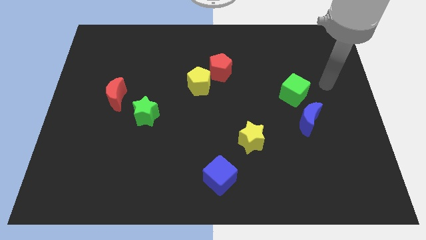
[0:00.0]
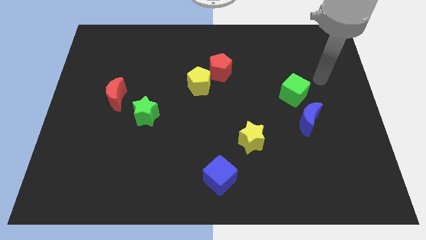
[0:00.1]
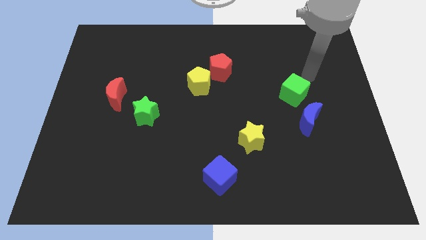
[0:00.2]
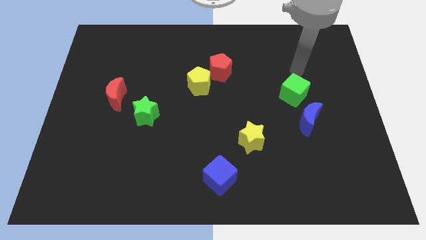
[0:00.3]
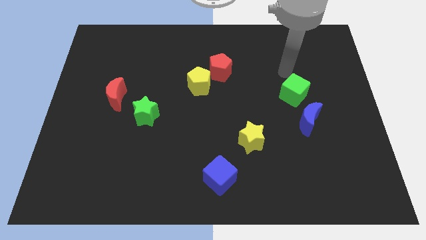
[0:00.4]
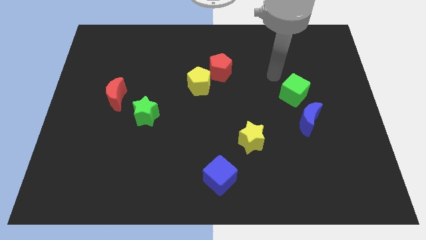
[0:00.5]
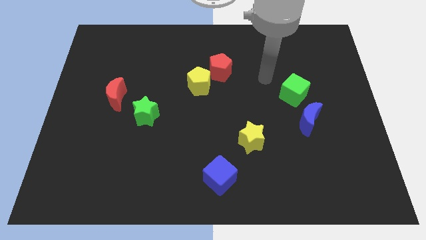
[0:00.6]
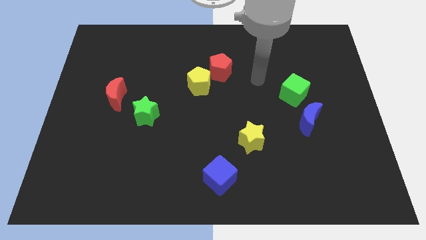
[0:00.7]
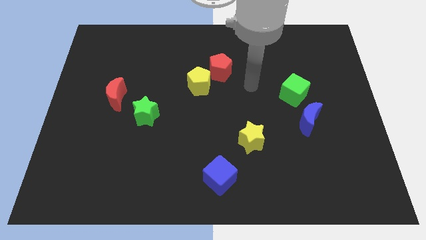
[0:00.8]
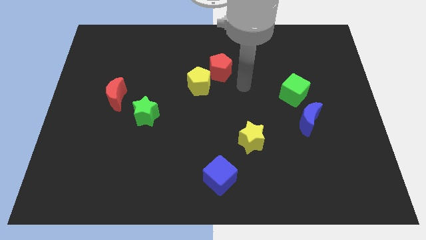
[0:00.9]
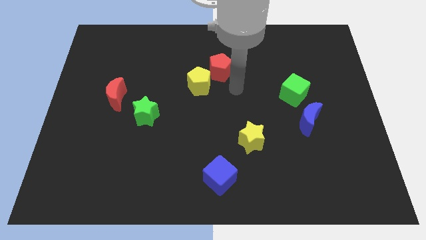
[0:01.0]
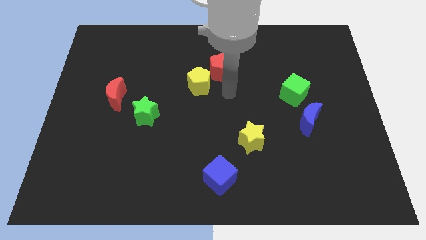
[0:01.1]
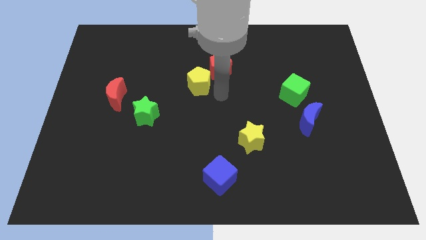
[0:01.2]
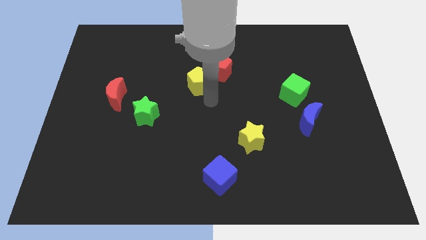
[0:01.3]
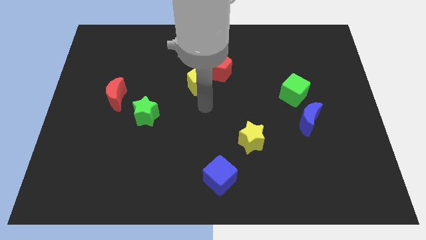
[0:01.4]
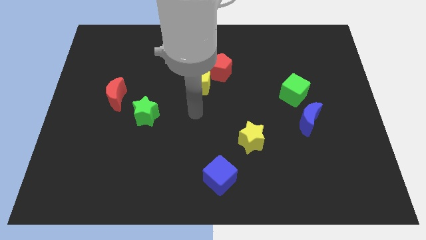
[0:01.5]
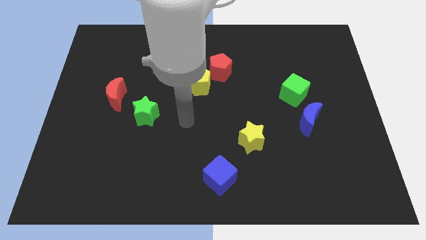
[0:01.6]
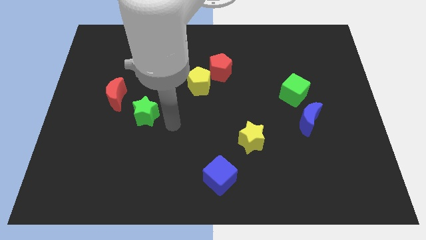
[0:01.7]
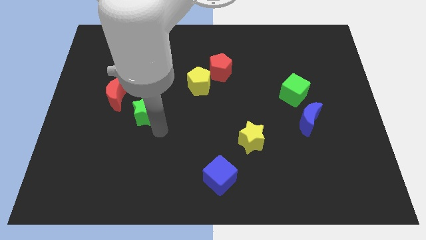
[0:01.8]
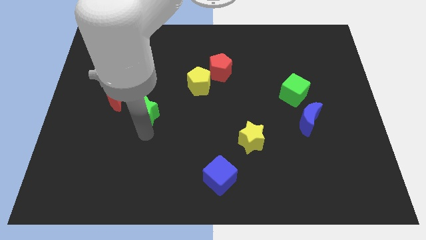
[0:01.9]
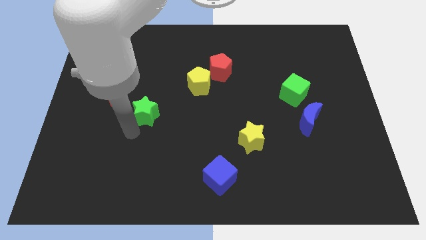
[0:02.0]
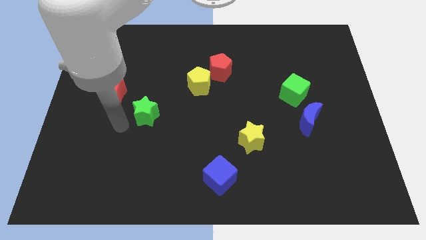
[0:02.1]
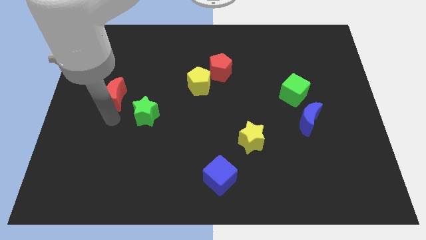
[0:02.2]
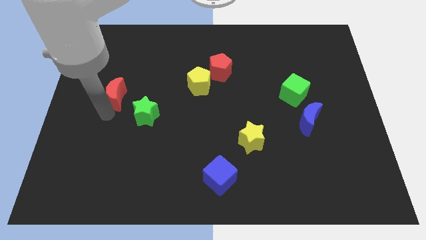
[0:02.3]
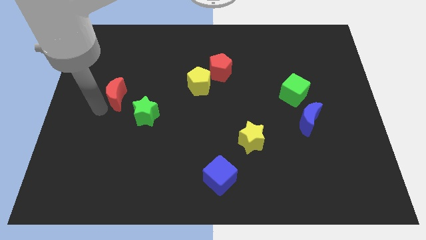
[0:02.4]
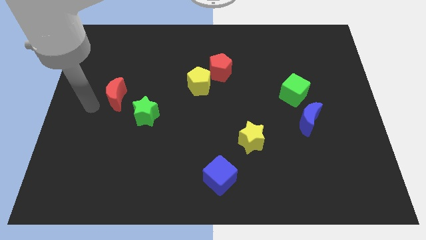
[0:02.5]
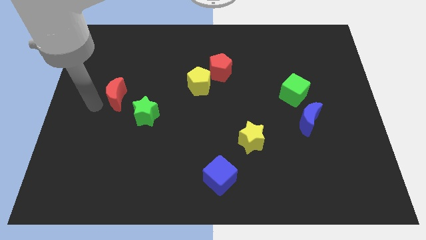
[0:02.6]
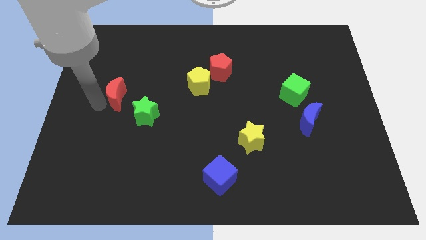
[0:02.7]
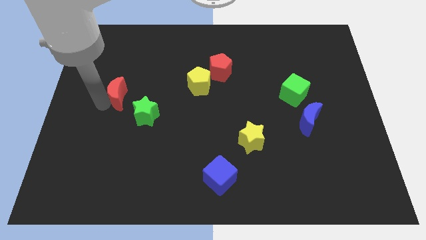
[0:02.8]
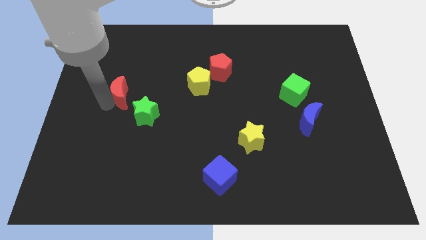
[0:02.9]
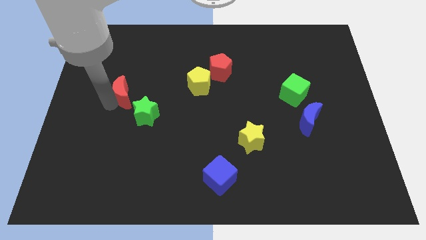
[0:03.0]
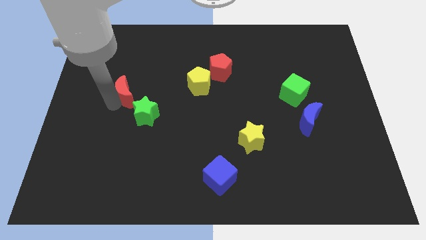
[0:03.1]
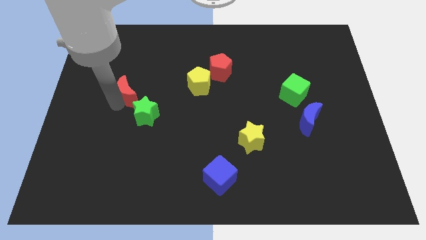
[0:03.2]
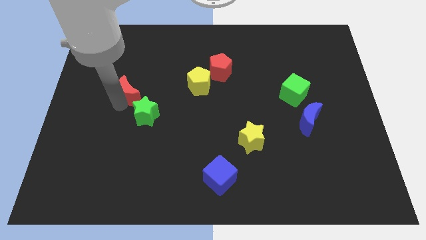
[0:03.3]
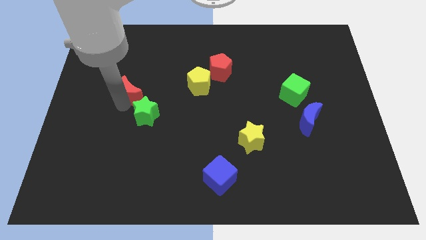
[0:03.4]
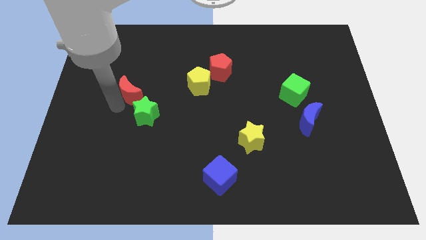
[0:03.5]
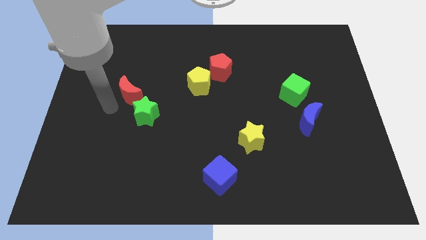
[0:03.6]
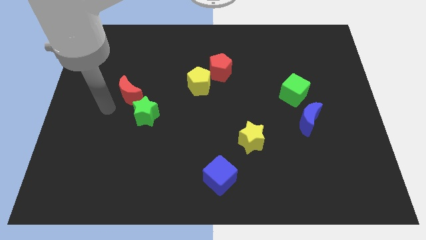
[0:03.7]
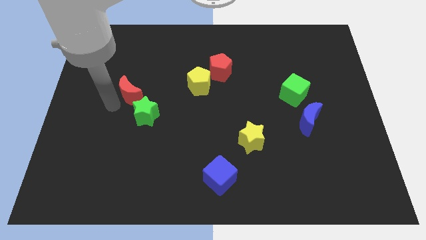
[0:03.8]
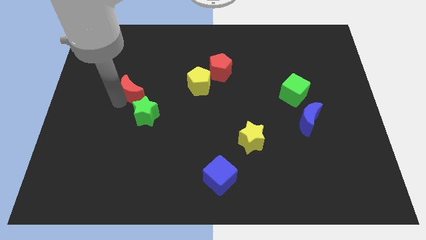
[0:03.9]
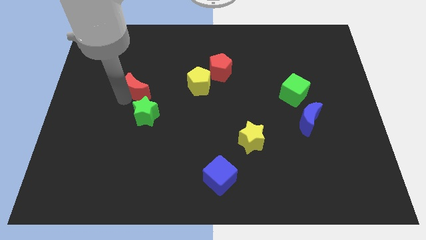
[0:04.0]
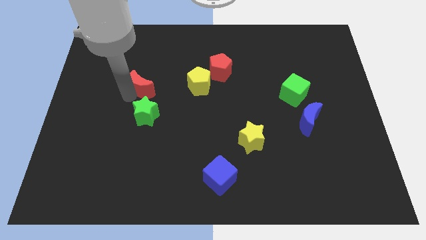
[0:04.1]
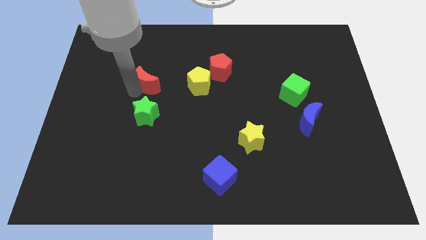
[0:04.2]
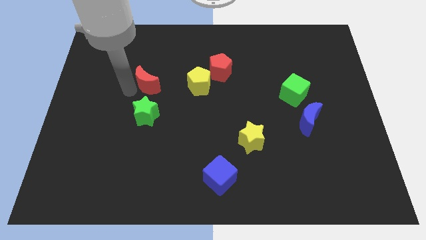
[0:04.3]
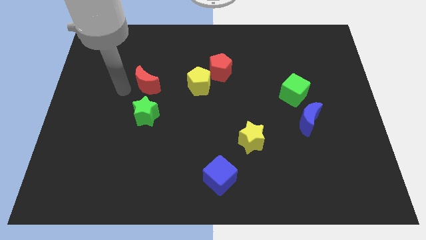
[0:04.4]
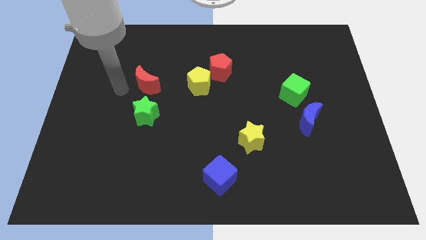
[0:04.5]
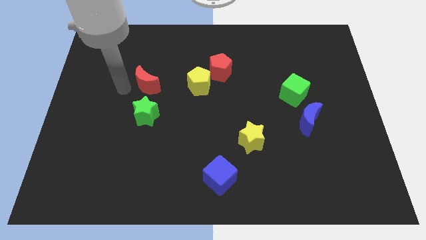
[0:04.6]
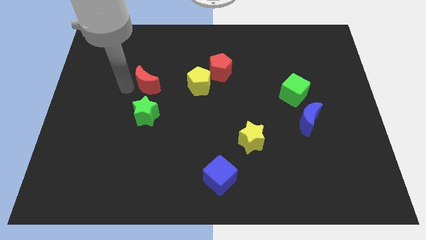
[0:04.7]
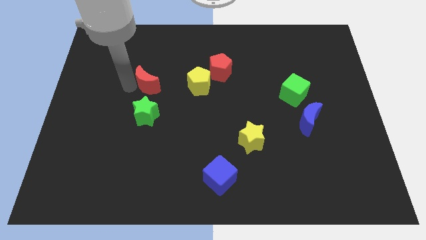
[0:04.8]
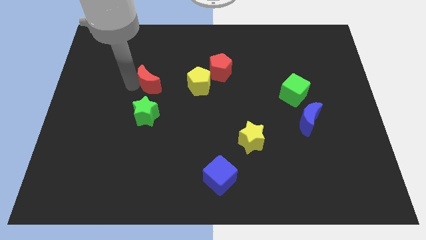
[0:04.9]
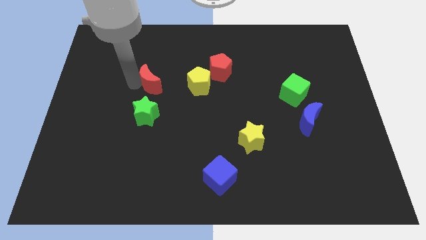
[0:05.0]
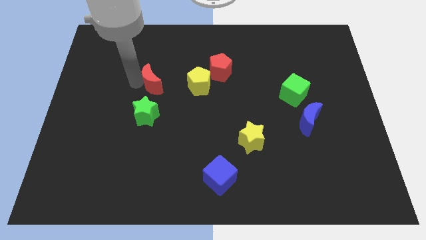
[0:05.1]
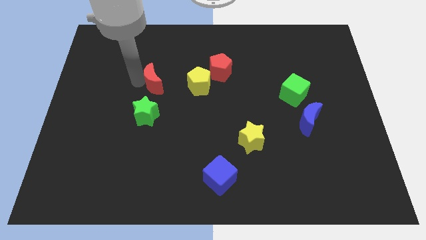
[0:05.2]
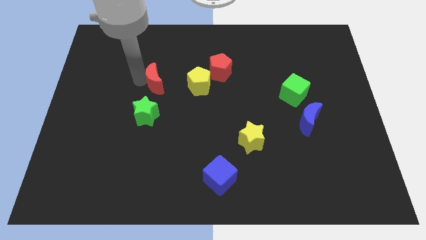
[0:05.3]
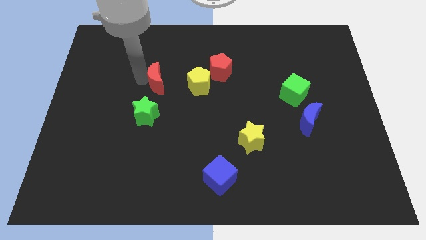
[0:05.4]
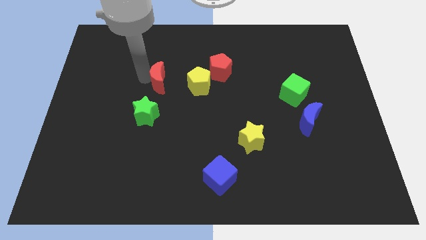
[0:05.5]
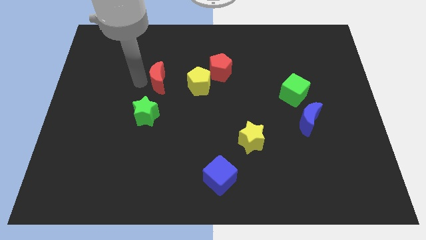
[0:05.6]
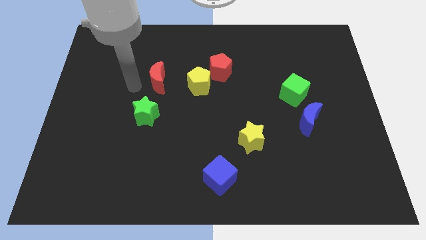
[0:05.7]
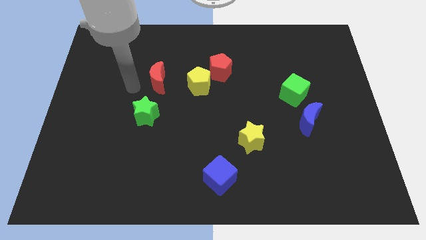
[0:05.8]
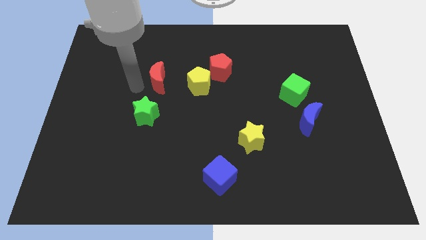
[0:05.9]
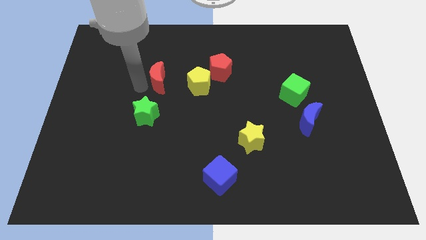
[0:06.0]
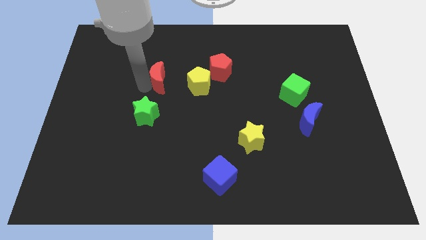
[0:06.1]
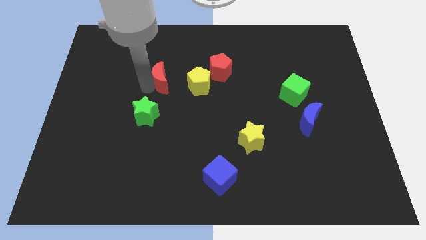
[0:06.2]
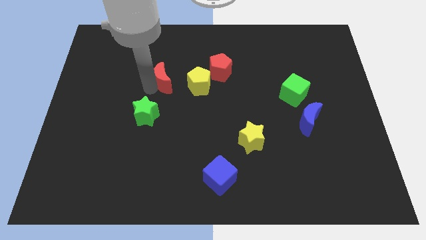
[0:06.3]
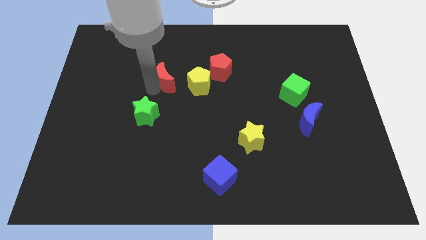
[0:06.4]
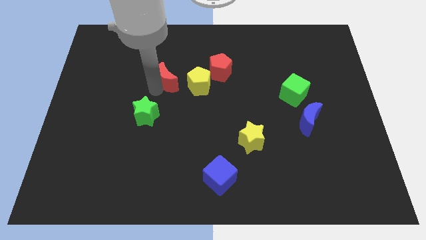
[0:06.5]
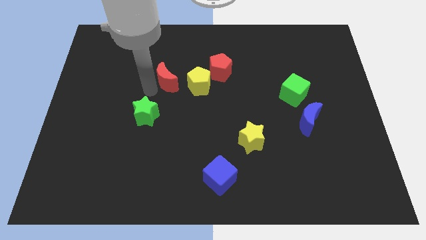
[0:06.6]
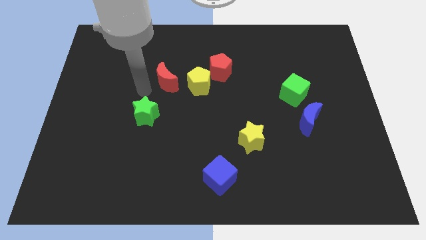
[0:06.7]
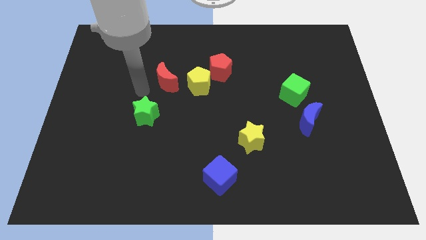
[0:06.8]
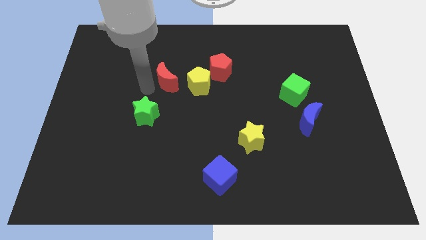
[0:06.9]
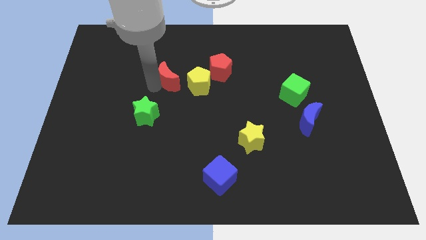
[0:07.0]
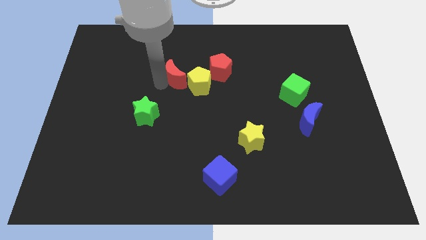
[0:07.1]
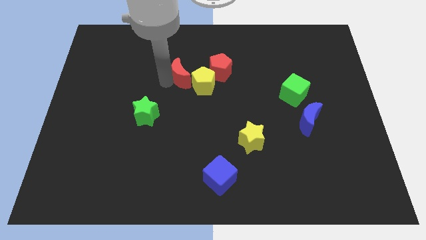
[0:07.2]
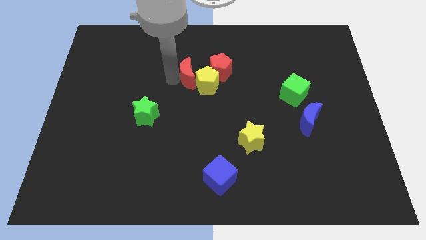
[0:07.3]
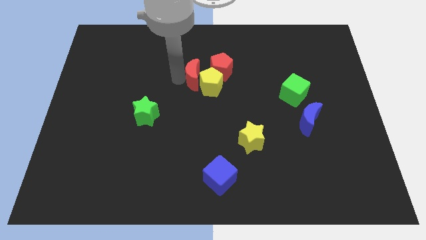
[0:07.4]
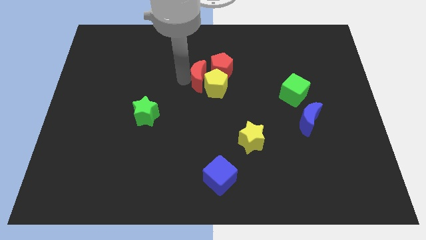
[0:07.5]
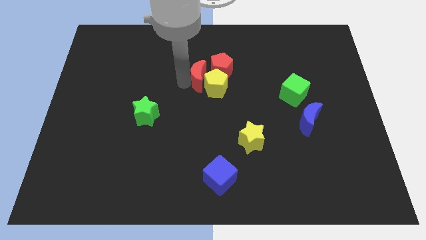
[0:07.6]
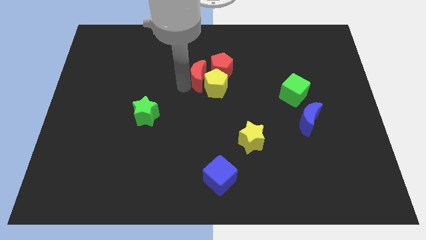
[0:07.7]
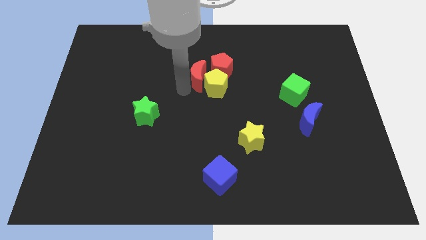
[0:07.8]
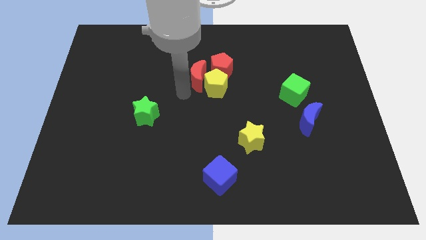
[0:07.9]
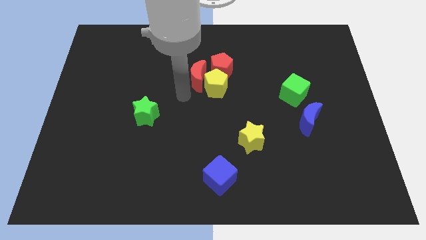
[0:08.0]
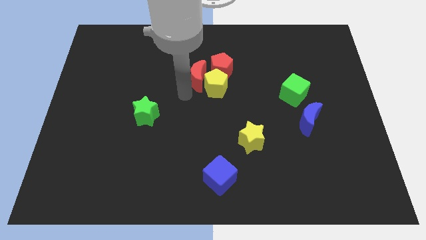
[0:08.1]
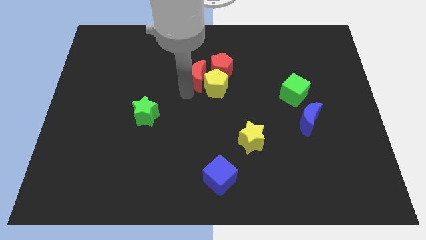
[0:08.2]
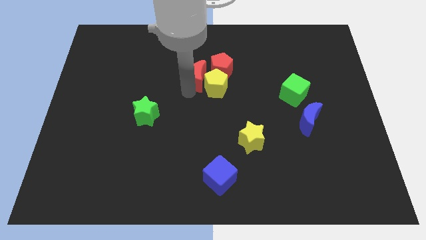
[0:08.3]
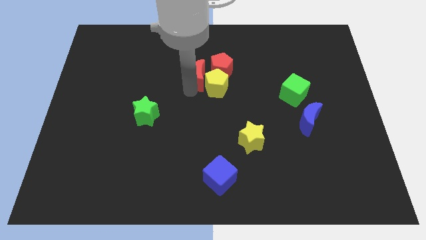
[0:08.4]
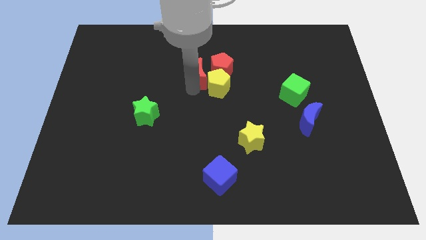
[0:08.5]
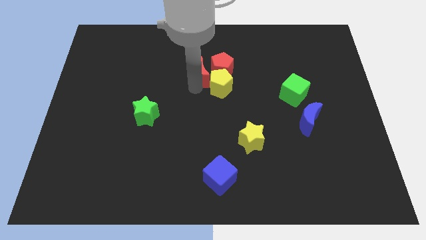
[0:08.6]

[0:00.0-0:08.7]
put the red moon next to the red pentagon
